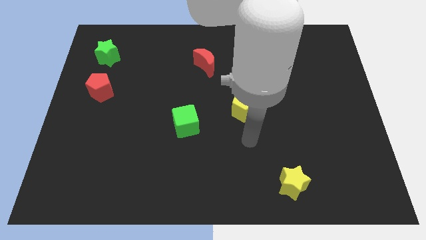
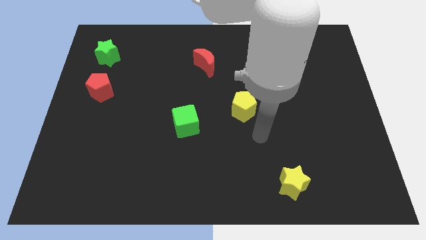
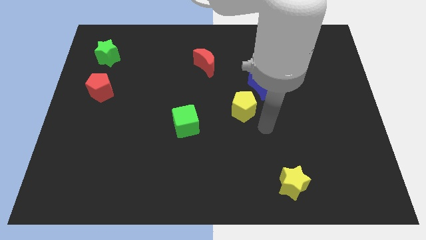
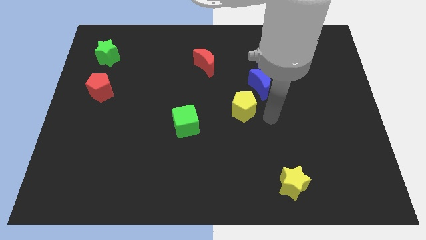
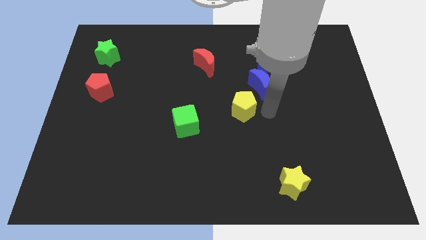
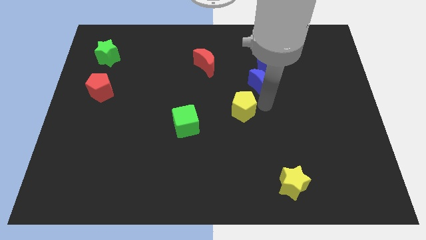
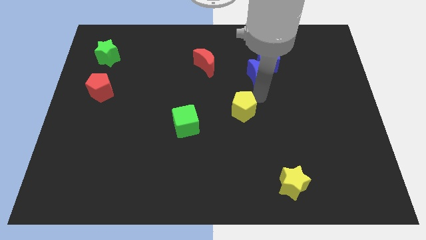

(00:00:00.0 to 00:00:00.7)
separate the yellow pentagon from the blue moon

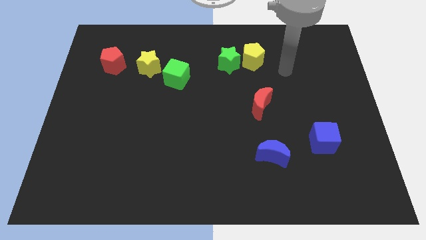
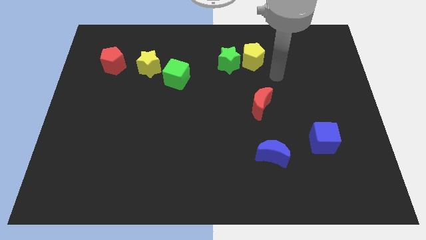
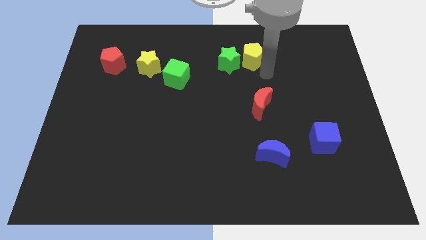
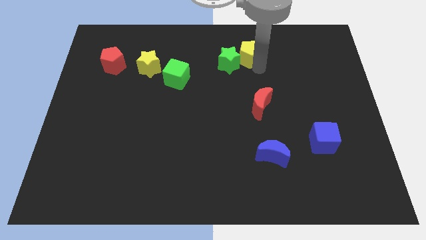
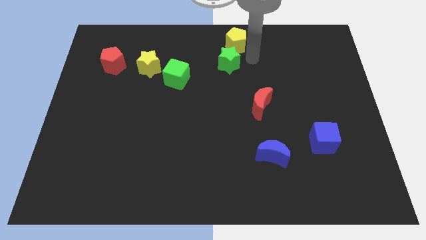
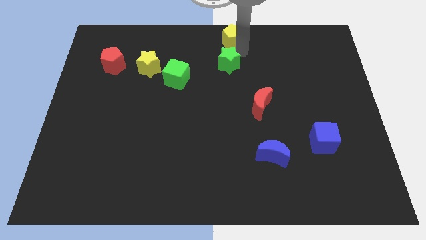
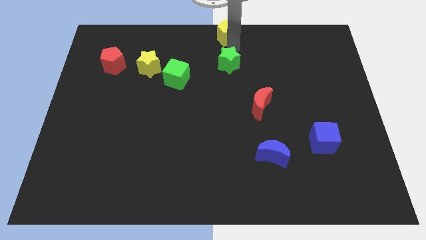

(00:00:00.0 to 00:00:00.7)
separate the green star from the yellow pentagon

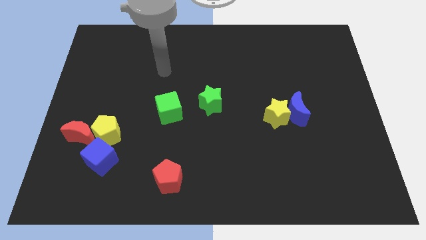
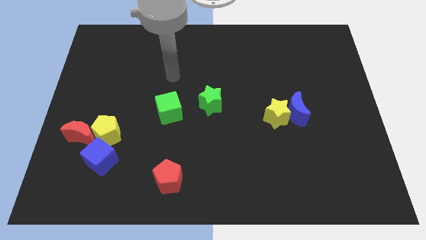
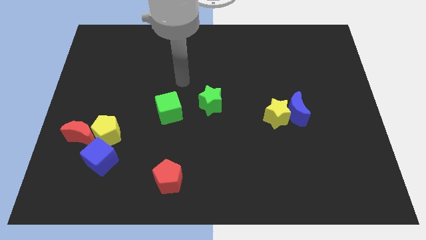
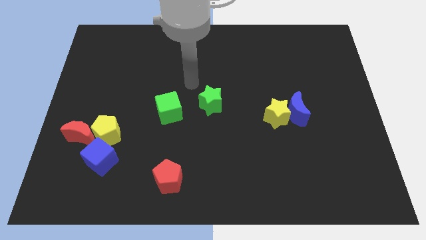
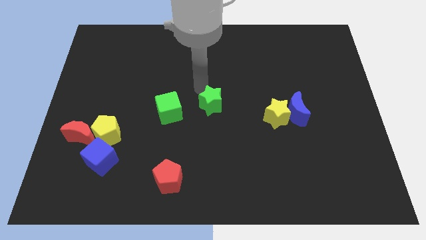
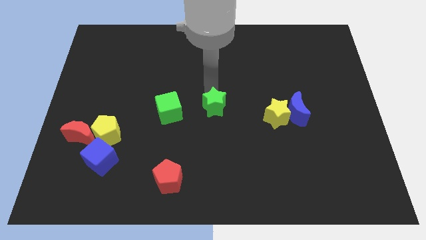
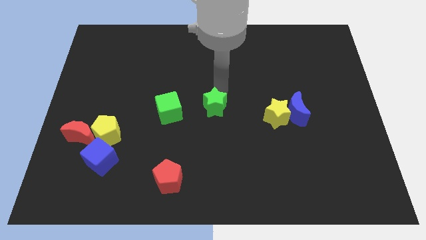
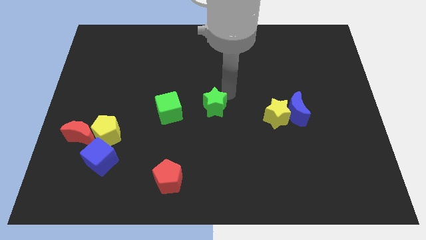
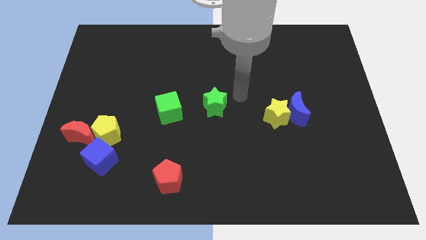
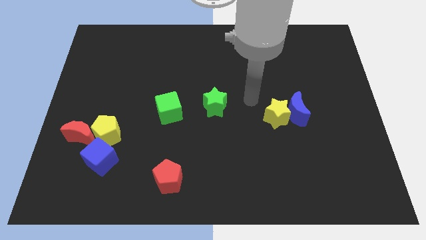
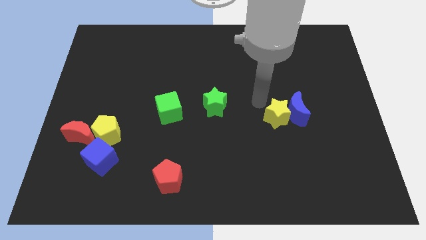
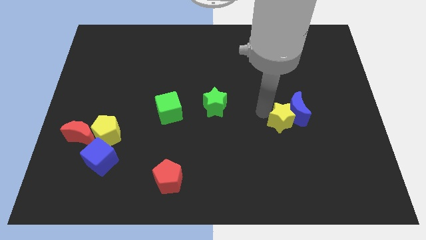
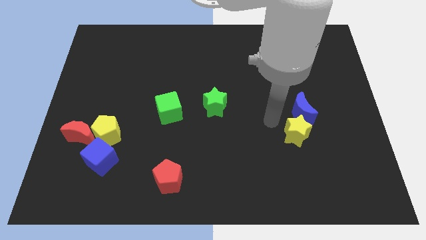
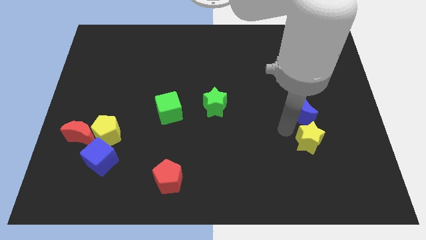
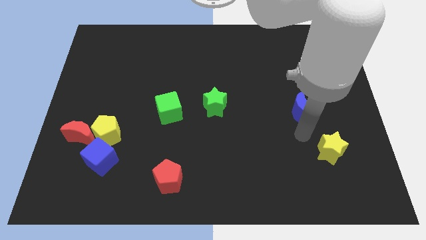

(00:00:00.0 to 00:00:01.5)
move the blue moon away from the yellow star

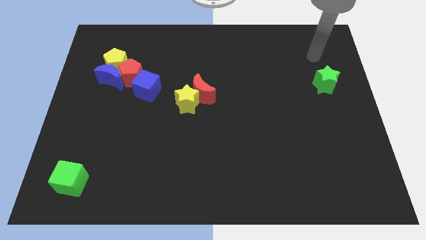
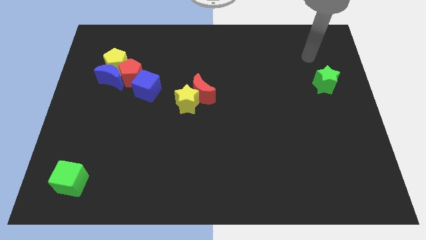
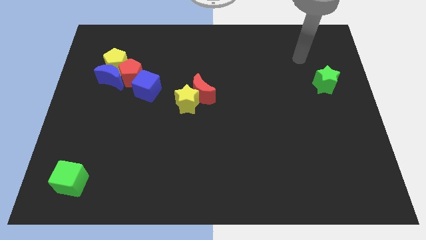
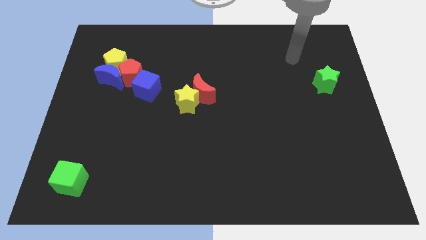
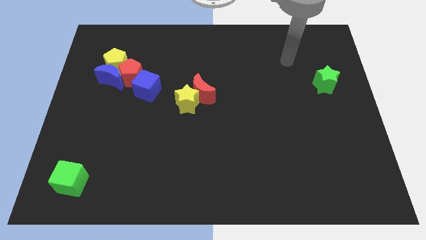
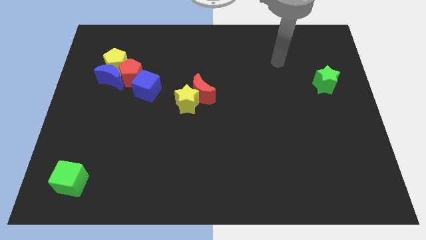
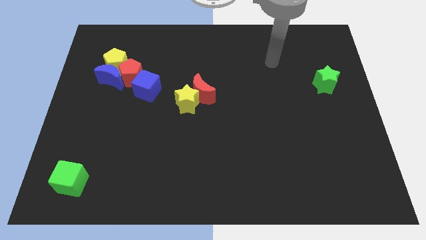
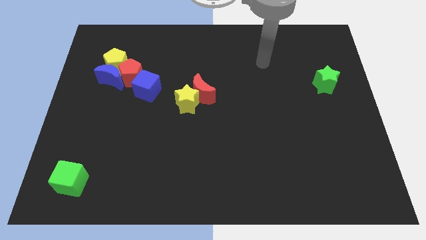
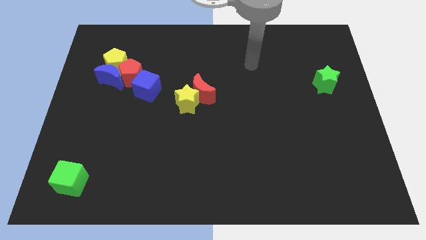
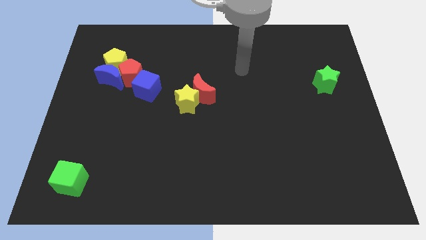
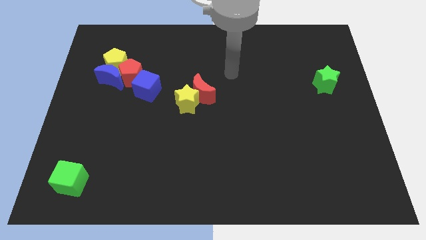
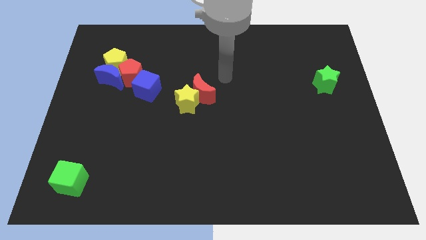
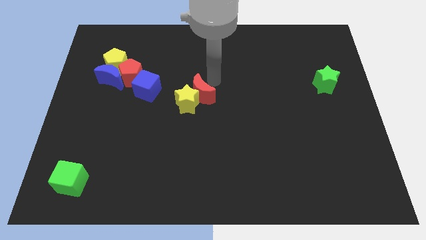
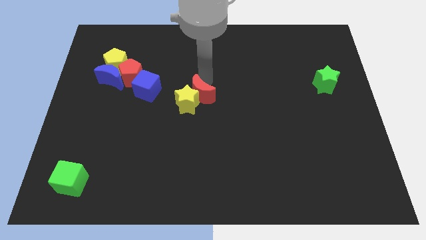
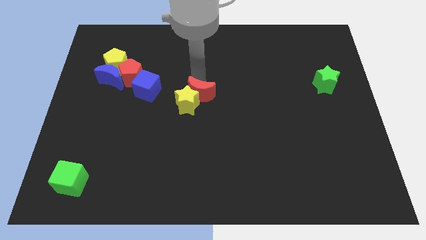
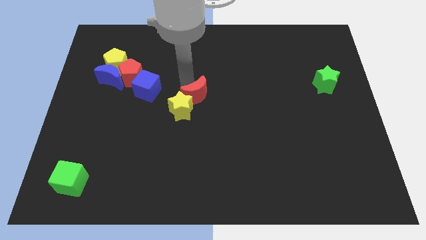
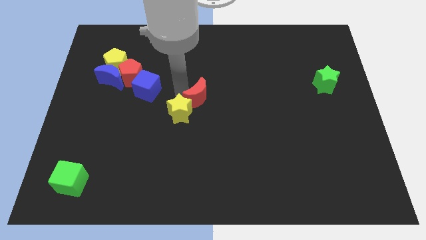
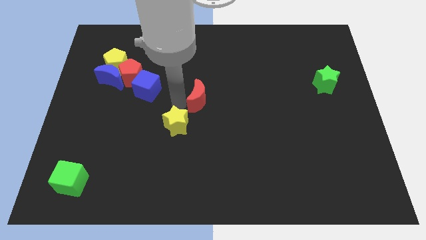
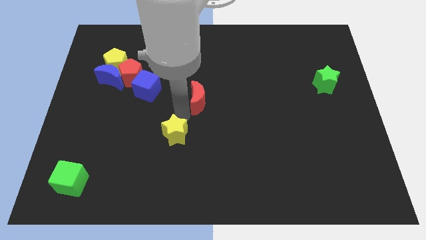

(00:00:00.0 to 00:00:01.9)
separate the red moon from the yellow star

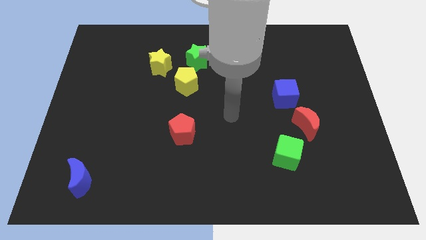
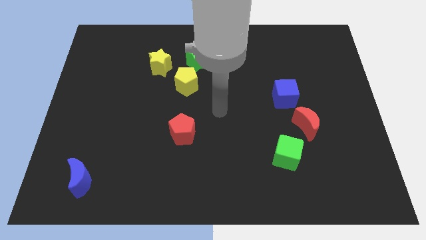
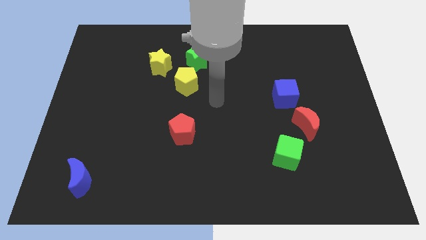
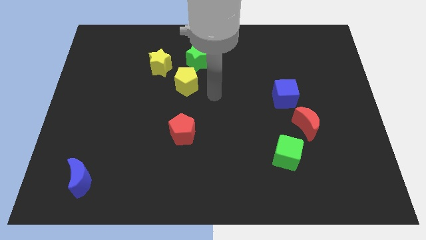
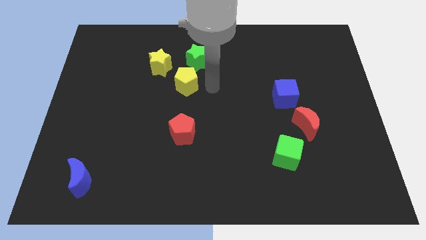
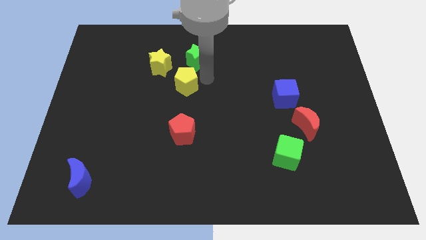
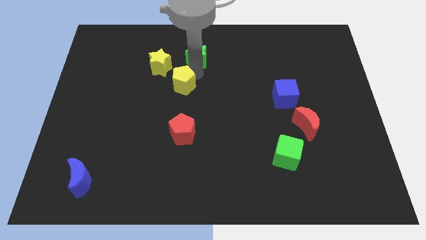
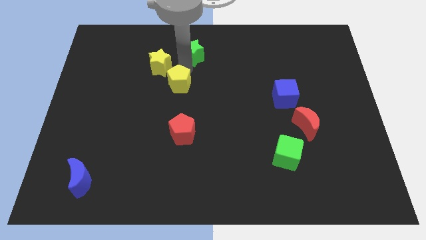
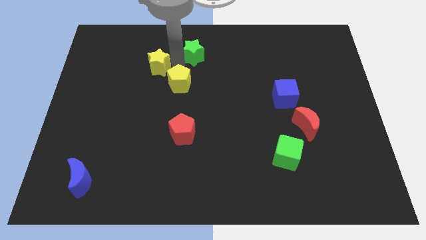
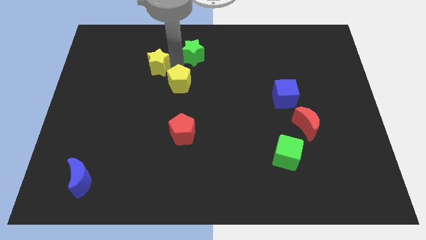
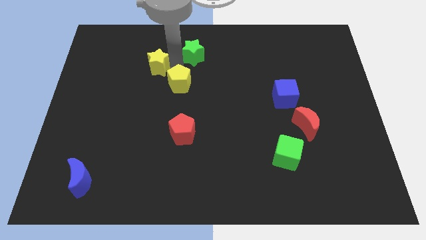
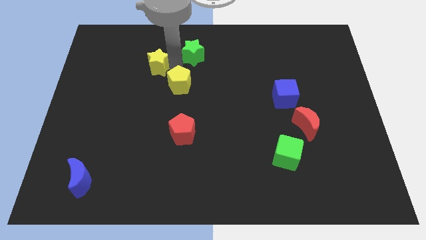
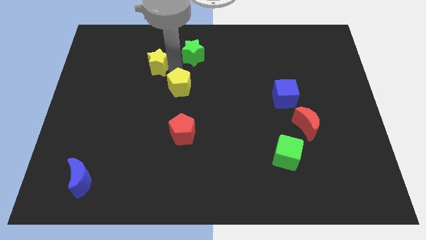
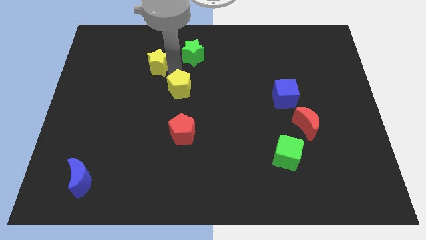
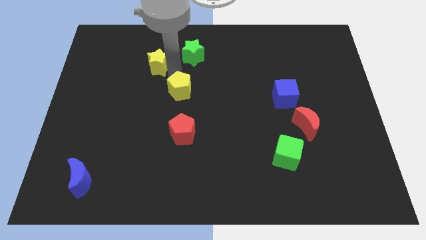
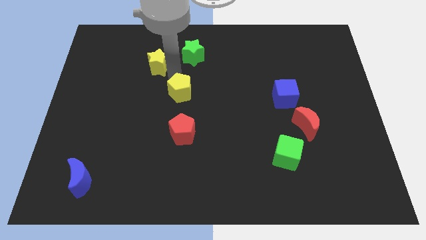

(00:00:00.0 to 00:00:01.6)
pull the yellow pentagon apart from the green star and yellow star

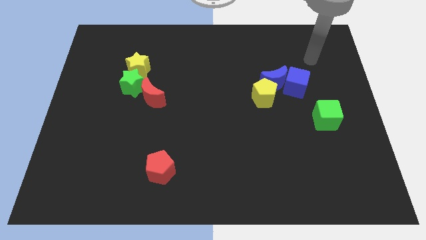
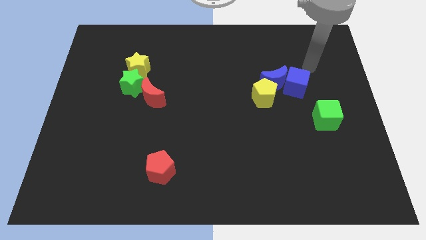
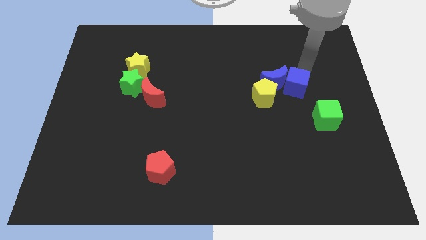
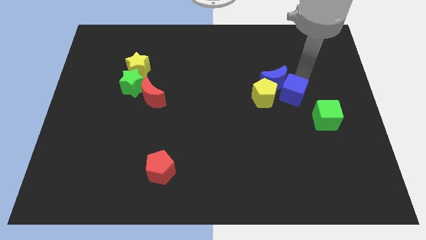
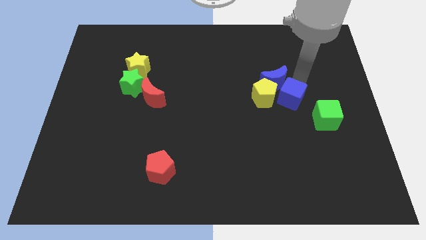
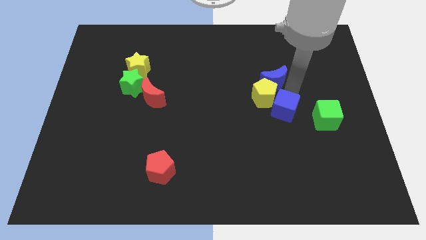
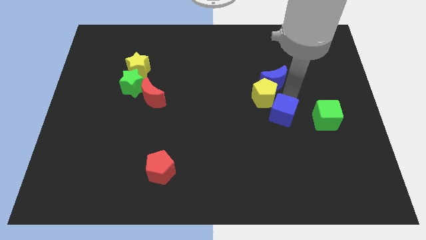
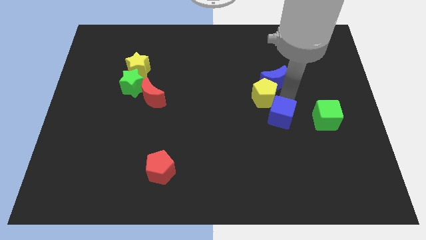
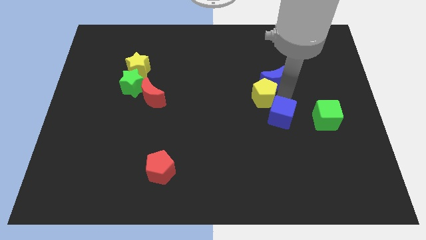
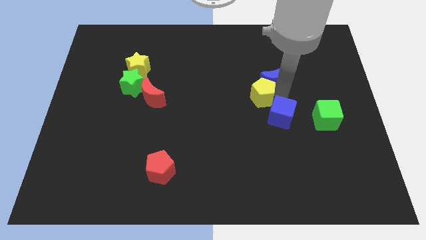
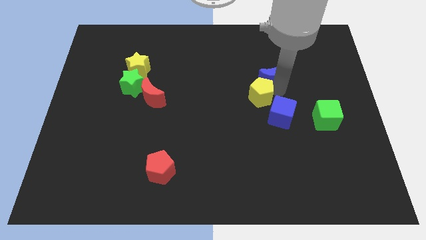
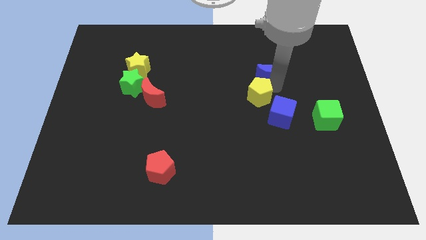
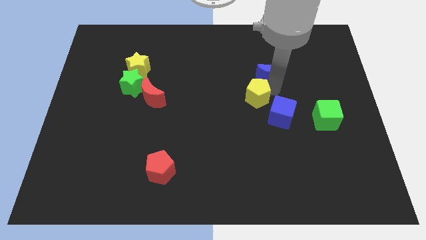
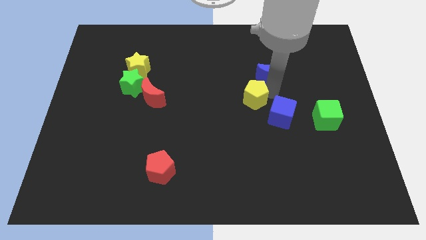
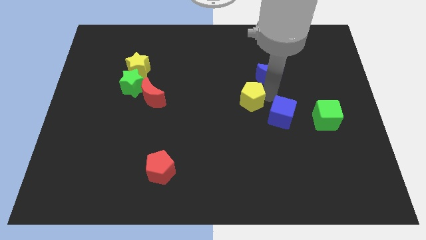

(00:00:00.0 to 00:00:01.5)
pull the blue moon apart from the blue cube and yellow pentagon

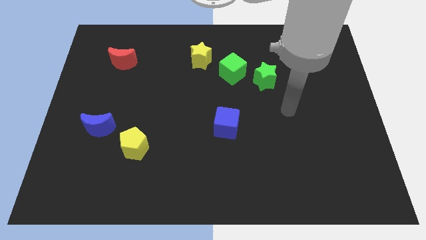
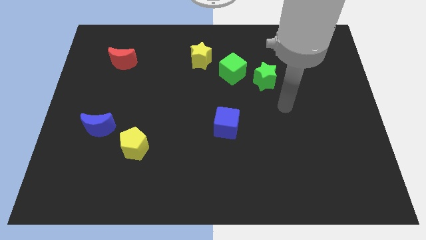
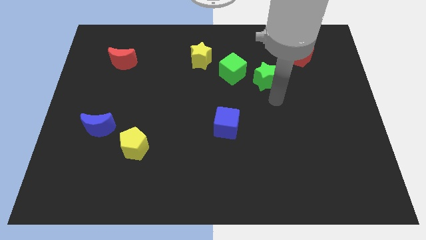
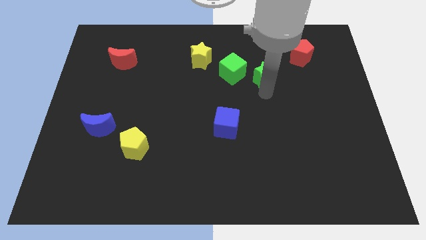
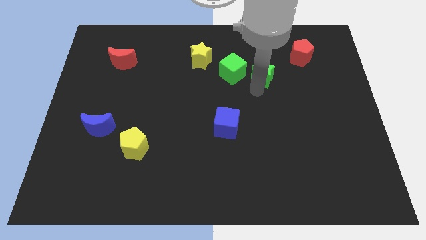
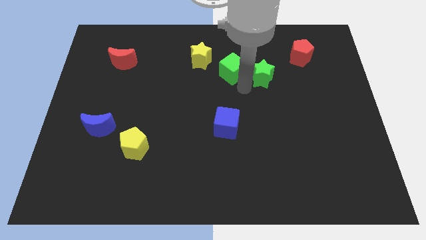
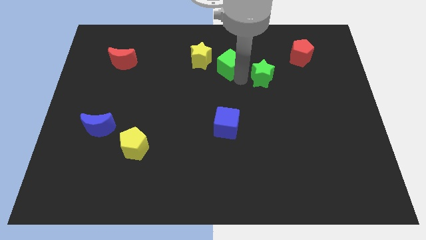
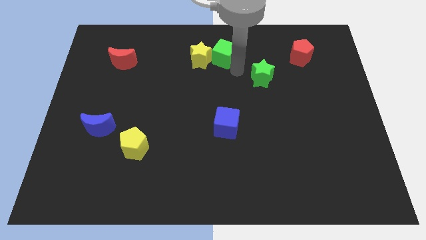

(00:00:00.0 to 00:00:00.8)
separate the green star from the green cube

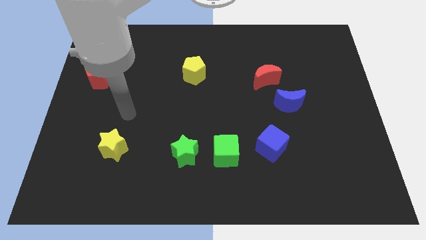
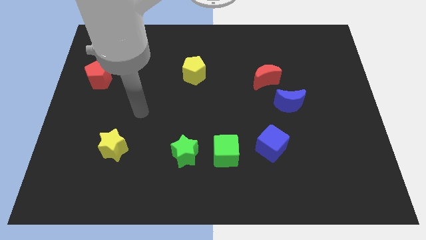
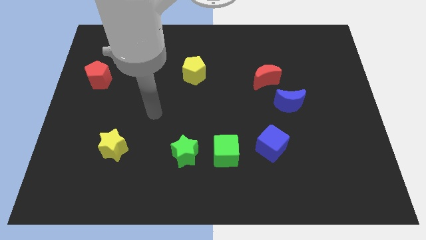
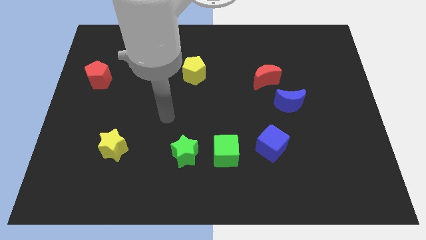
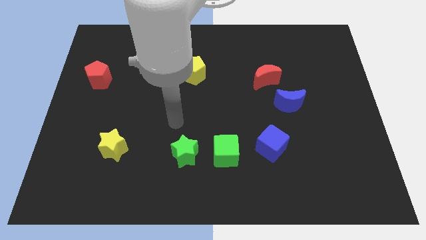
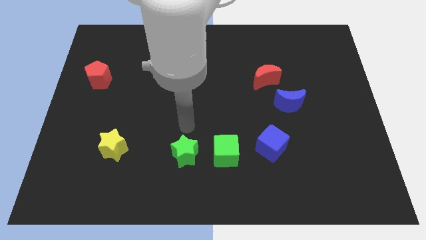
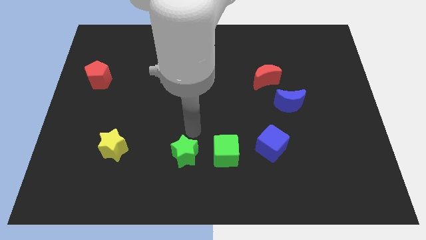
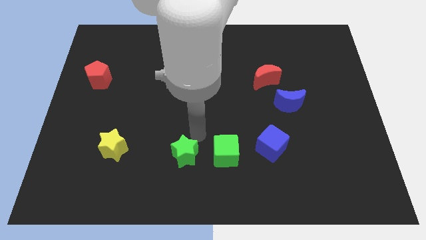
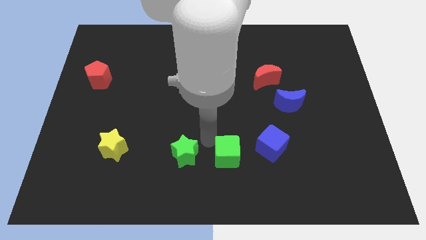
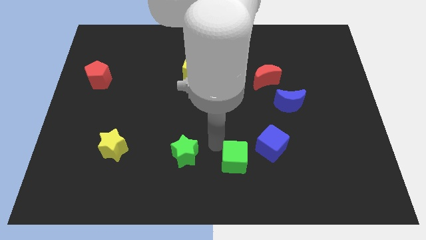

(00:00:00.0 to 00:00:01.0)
move the green star away from the green cube
